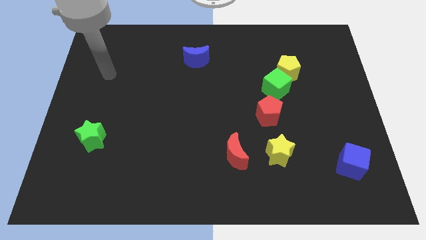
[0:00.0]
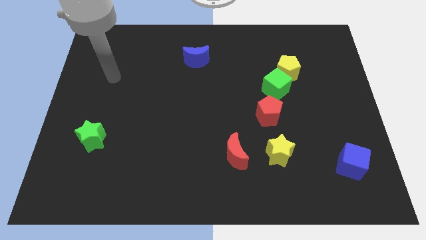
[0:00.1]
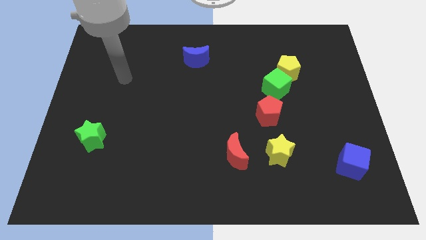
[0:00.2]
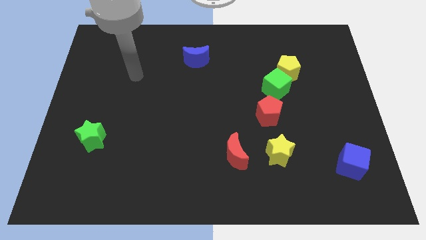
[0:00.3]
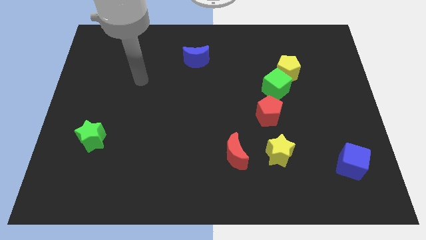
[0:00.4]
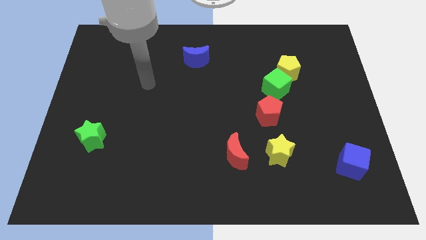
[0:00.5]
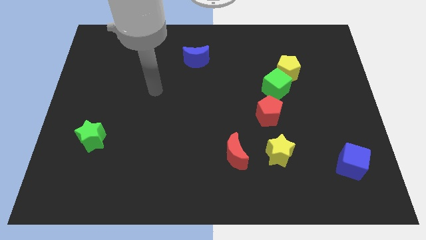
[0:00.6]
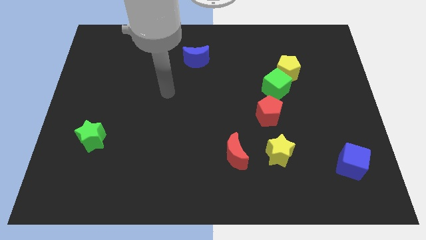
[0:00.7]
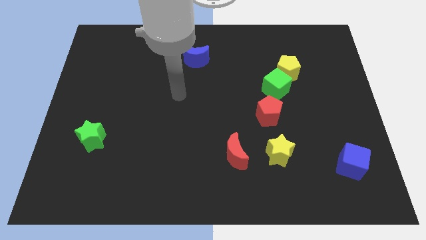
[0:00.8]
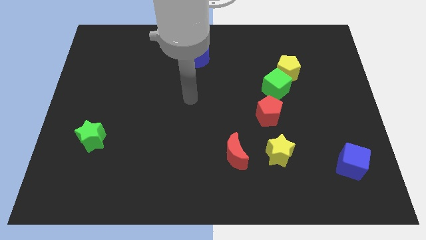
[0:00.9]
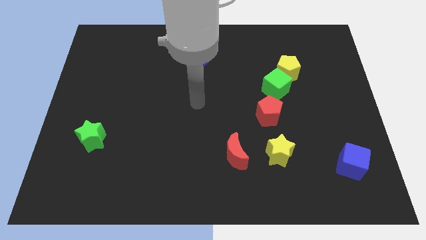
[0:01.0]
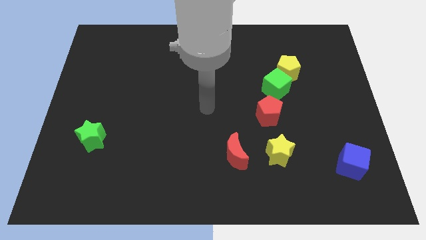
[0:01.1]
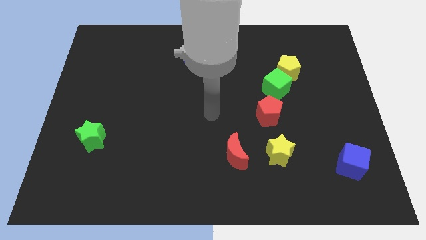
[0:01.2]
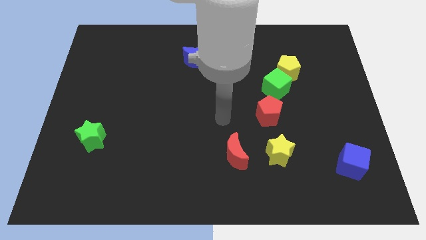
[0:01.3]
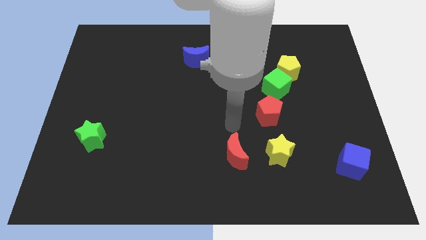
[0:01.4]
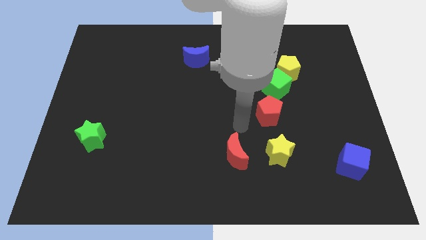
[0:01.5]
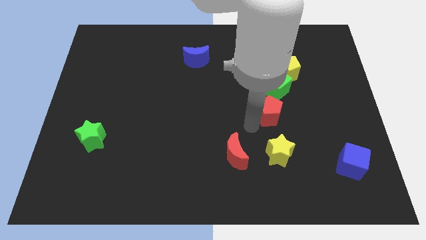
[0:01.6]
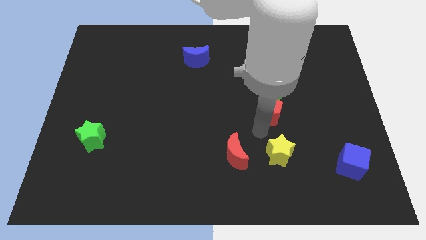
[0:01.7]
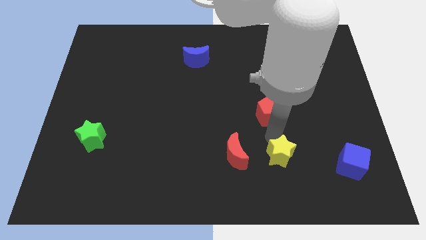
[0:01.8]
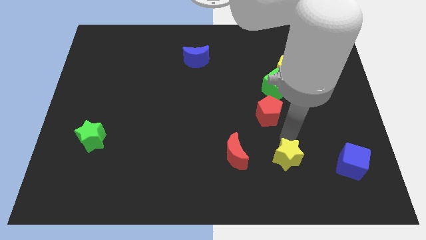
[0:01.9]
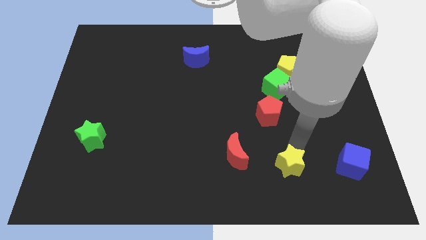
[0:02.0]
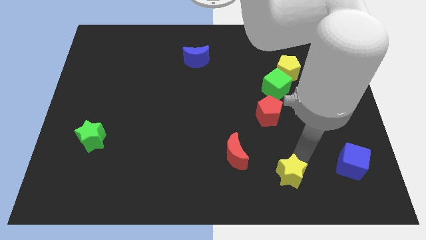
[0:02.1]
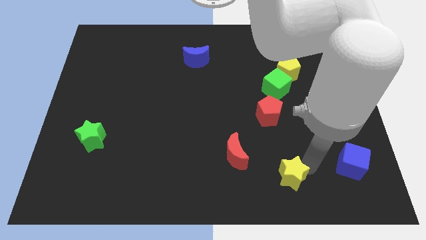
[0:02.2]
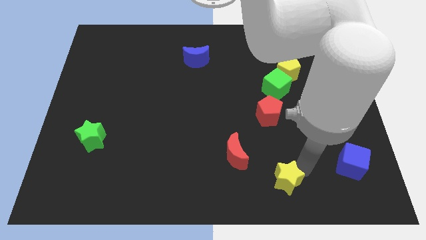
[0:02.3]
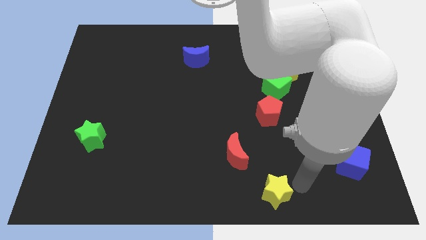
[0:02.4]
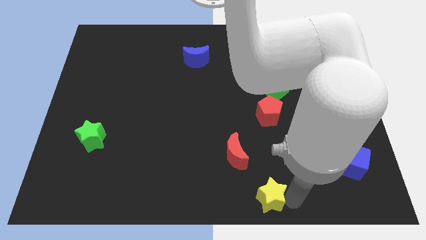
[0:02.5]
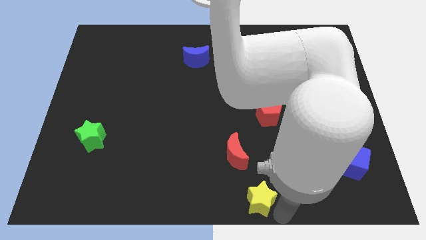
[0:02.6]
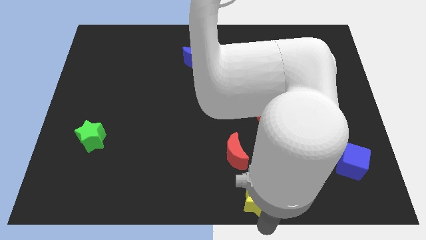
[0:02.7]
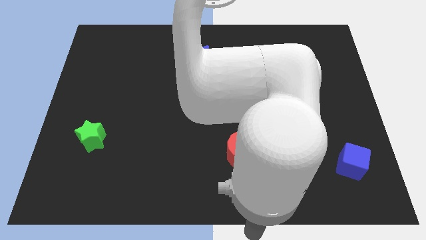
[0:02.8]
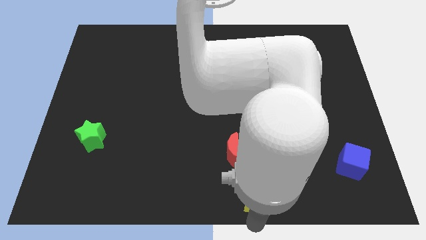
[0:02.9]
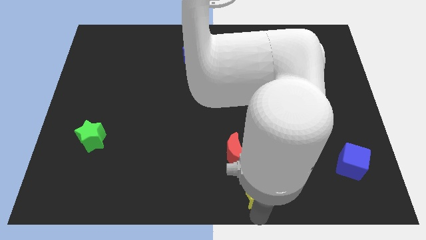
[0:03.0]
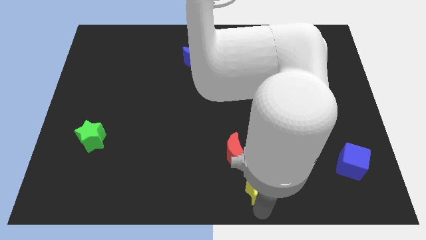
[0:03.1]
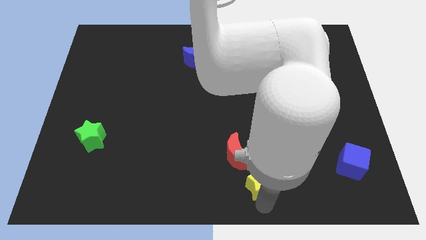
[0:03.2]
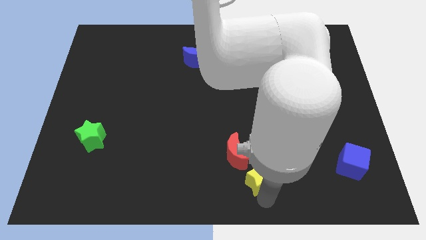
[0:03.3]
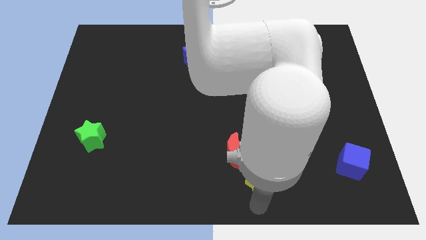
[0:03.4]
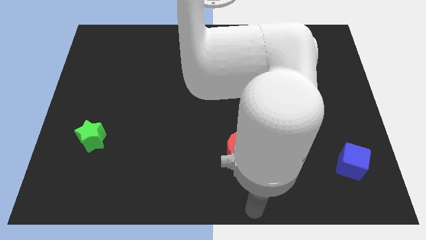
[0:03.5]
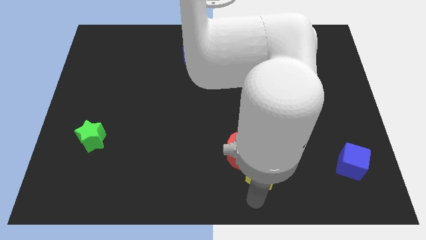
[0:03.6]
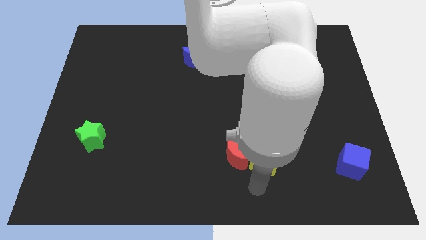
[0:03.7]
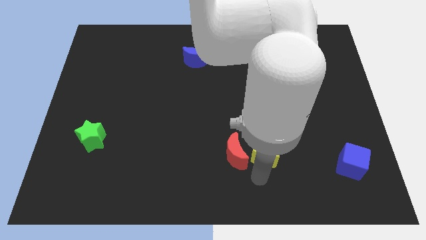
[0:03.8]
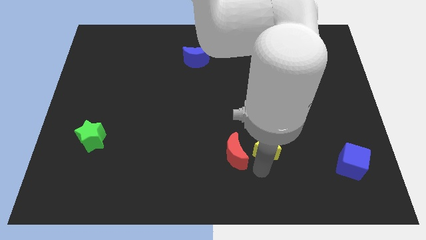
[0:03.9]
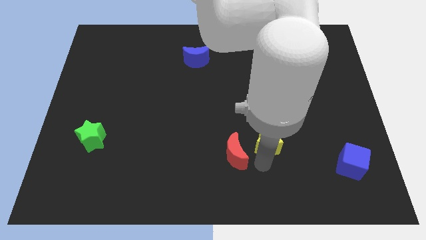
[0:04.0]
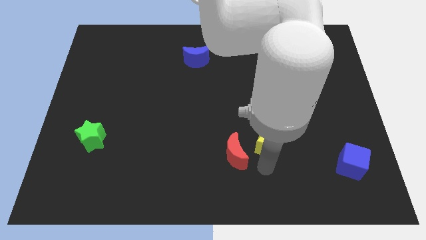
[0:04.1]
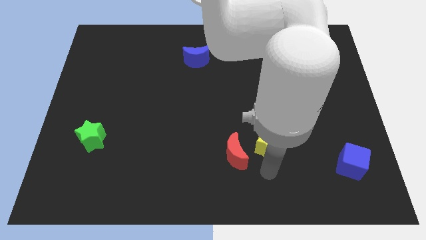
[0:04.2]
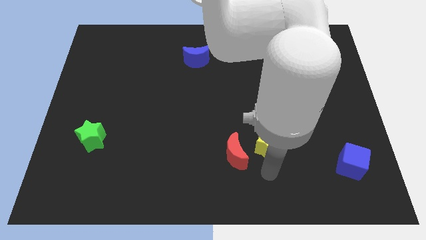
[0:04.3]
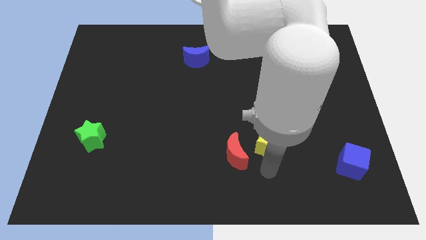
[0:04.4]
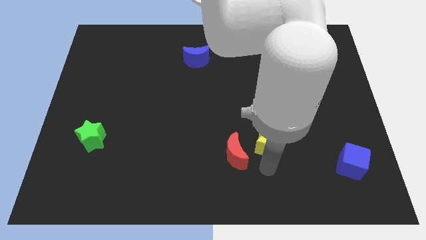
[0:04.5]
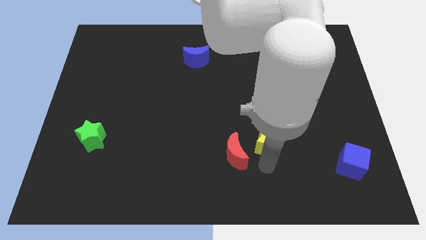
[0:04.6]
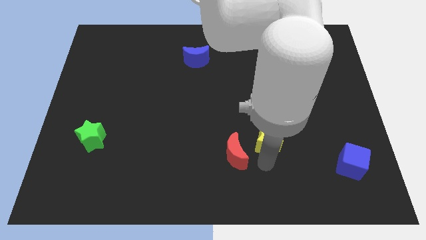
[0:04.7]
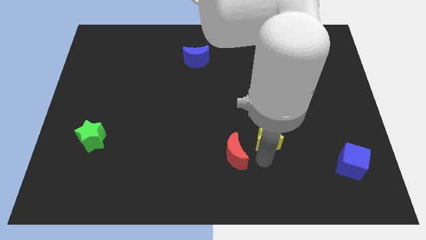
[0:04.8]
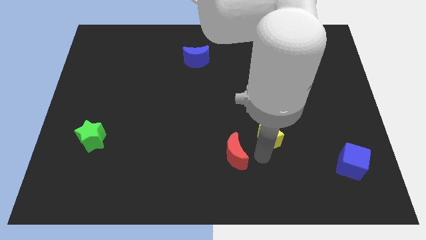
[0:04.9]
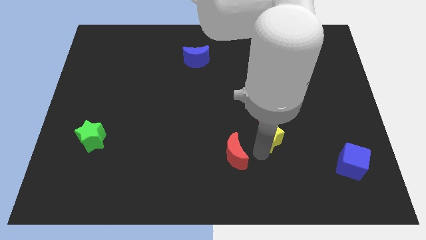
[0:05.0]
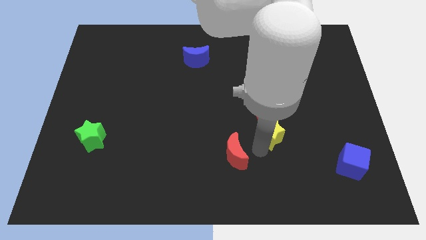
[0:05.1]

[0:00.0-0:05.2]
slide the yellow star close to the red pentagon

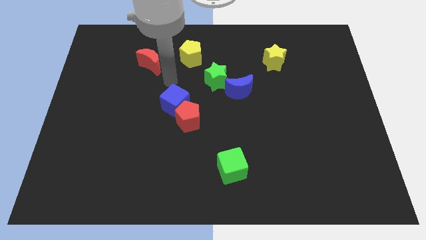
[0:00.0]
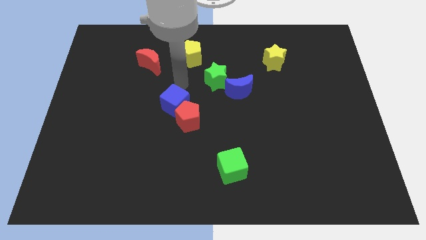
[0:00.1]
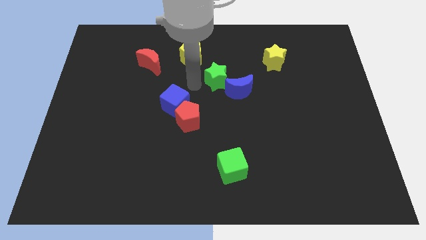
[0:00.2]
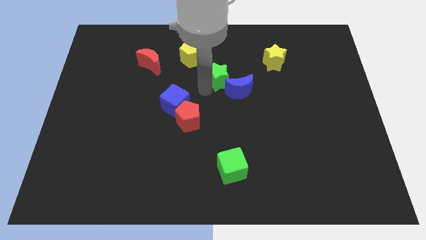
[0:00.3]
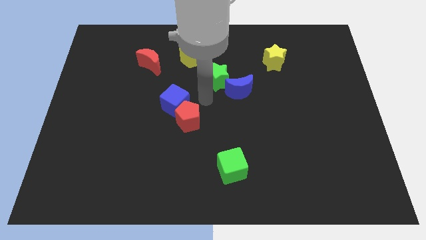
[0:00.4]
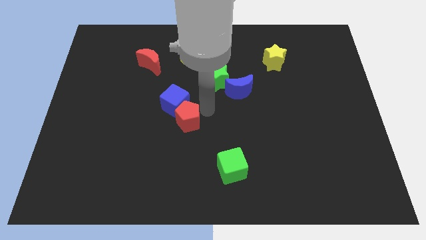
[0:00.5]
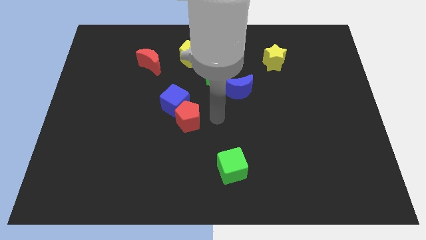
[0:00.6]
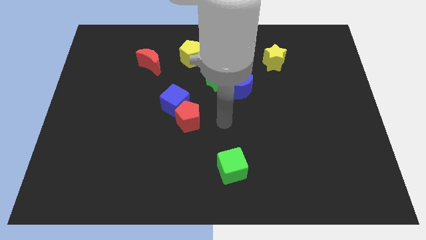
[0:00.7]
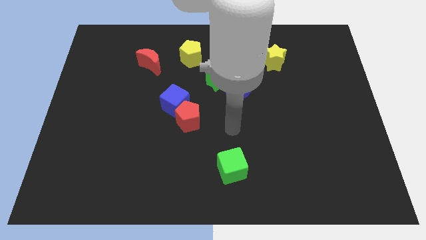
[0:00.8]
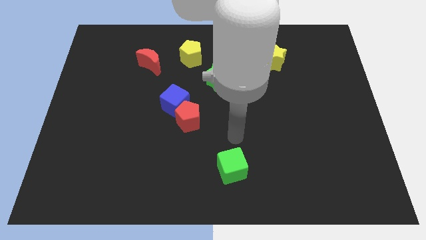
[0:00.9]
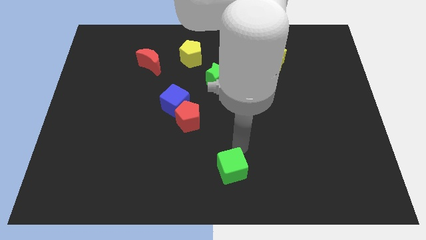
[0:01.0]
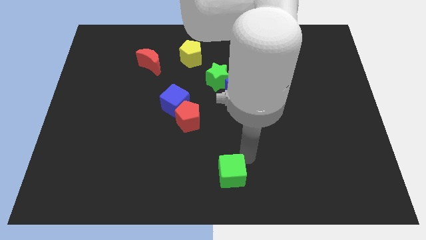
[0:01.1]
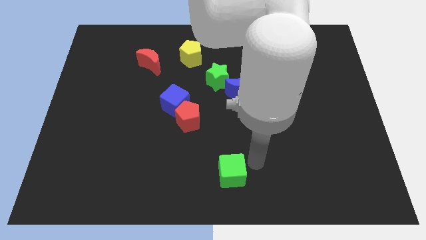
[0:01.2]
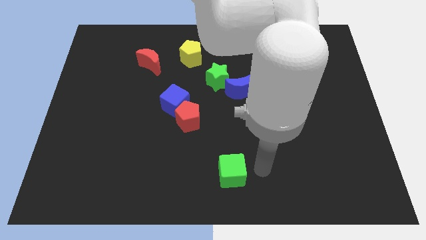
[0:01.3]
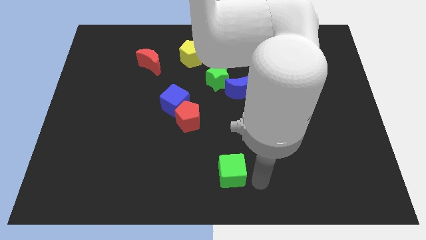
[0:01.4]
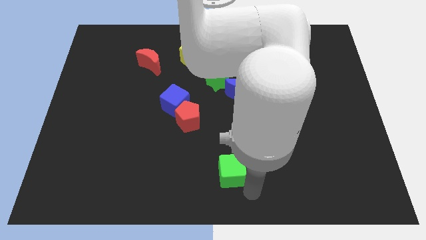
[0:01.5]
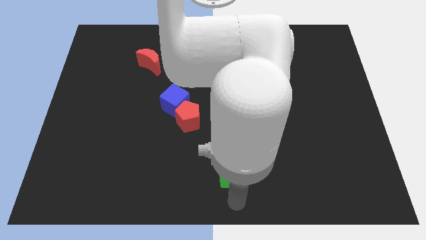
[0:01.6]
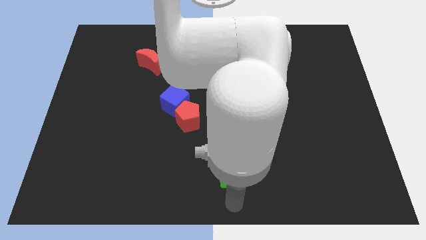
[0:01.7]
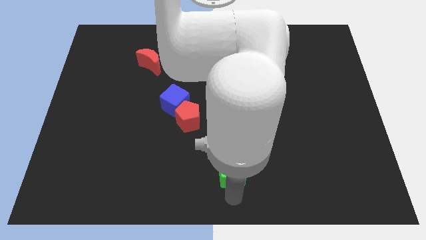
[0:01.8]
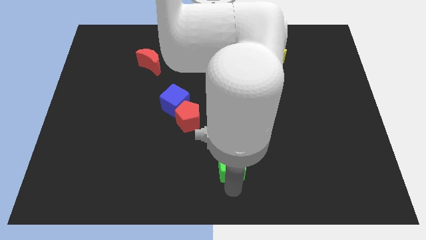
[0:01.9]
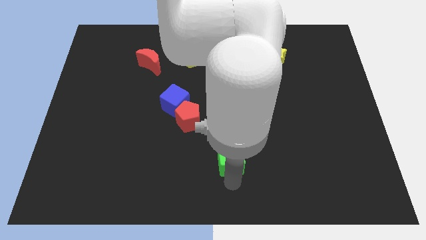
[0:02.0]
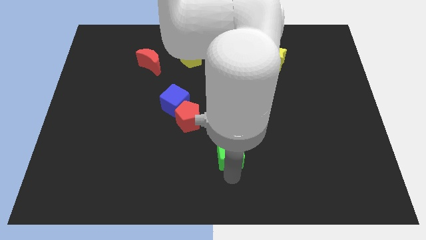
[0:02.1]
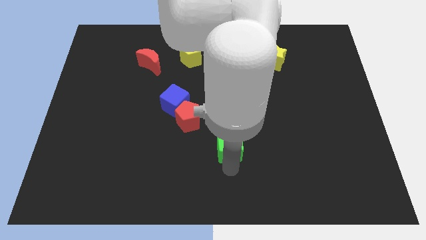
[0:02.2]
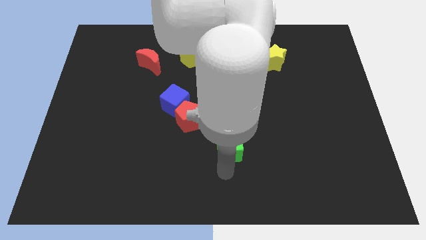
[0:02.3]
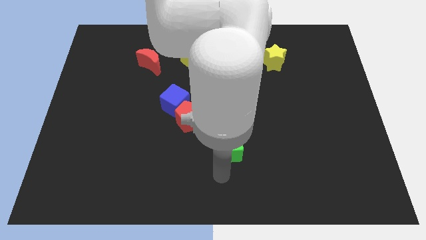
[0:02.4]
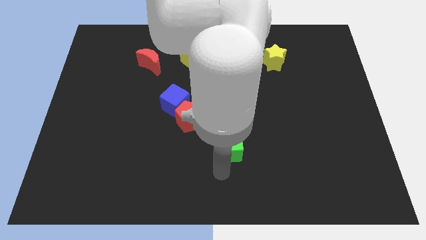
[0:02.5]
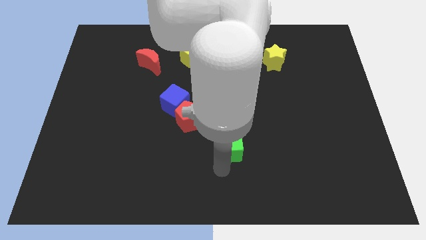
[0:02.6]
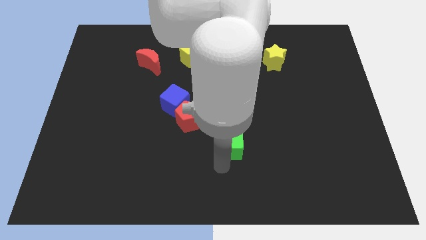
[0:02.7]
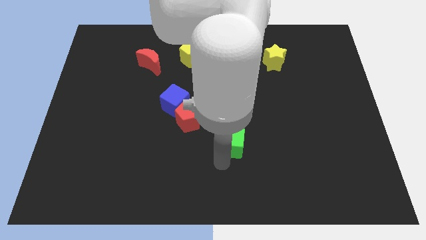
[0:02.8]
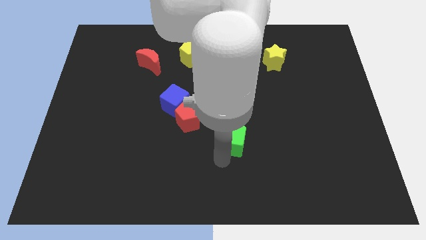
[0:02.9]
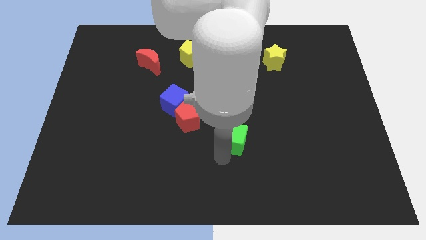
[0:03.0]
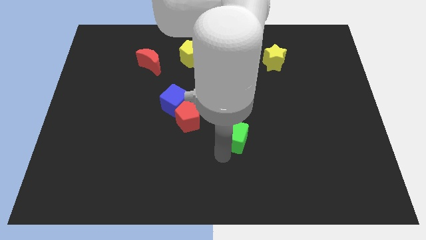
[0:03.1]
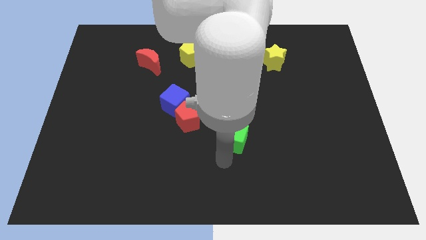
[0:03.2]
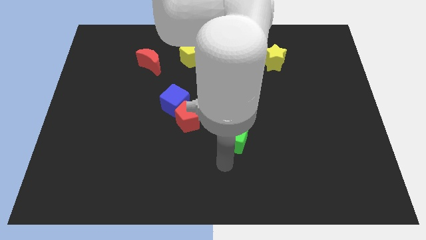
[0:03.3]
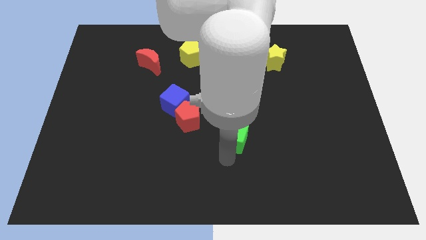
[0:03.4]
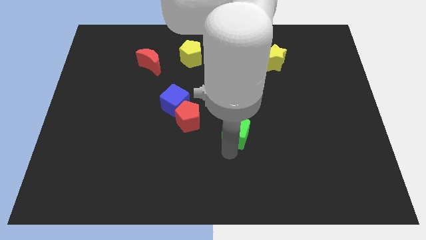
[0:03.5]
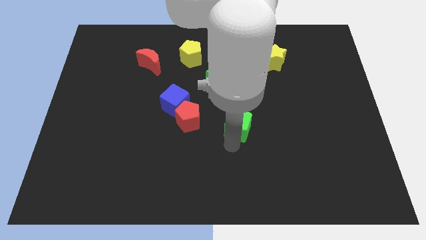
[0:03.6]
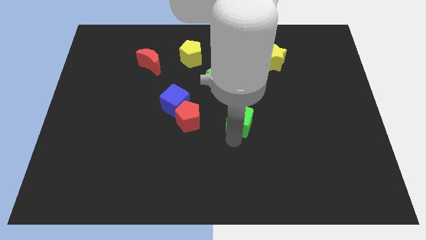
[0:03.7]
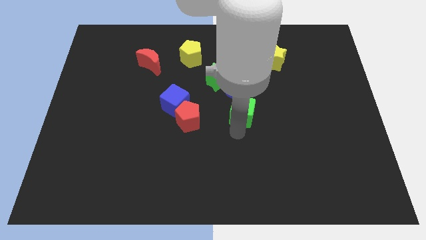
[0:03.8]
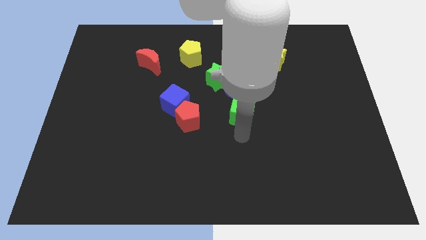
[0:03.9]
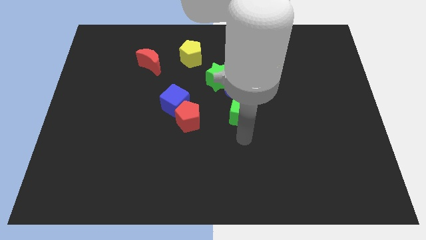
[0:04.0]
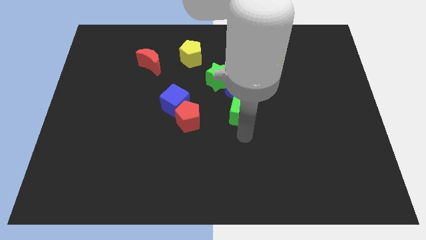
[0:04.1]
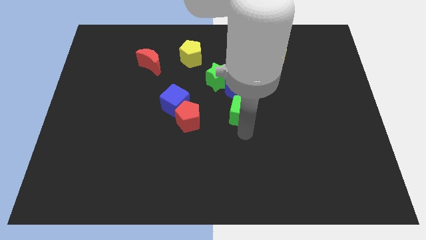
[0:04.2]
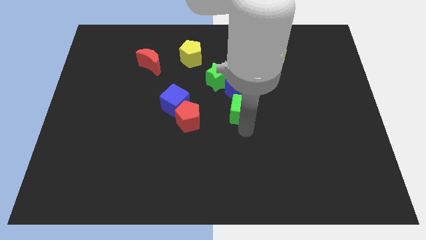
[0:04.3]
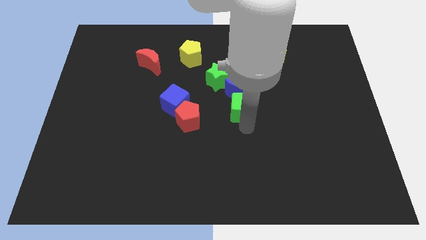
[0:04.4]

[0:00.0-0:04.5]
move the green cube to the blue moon
